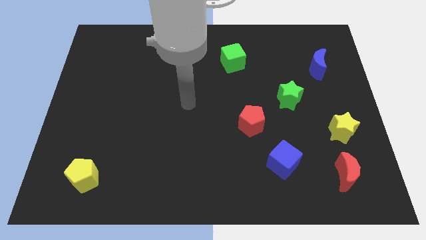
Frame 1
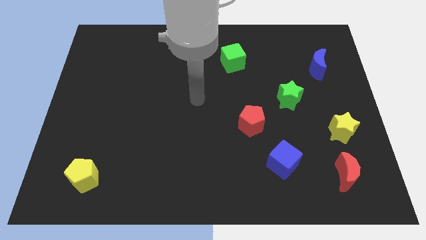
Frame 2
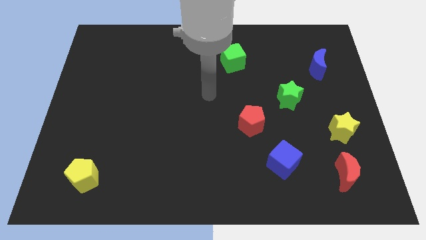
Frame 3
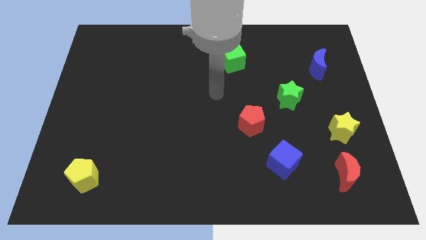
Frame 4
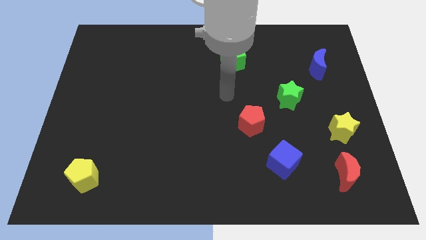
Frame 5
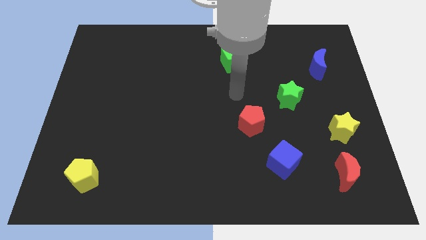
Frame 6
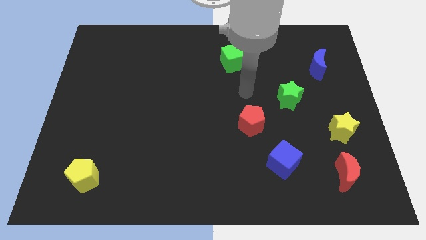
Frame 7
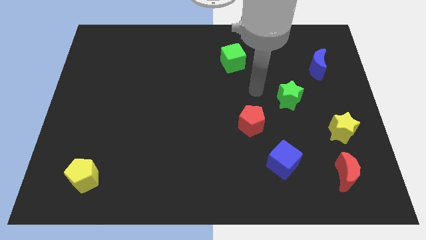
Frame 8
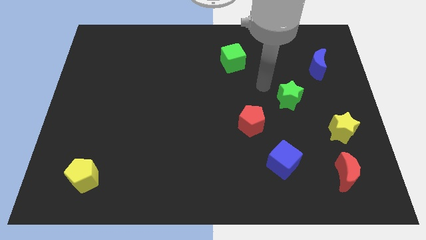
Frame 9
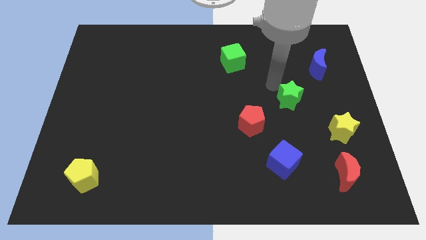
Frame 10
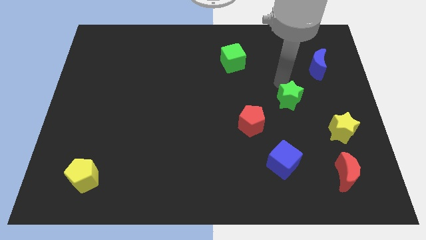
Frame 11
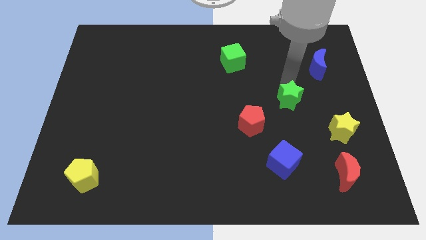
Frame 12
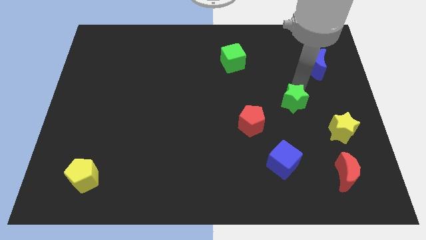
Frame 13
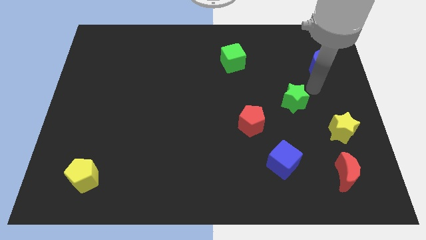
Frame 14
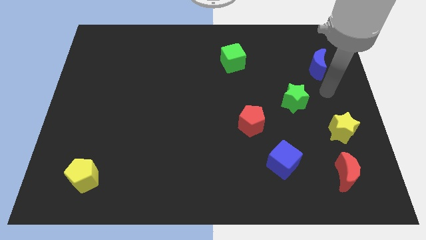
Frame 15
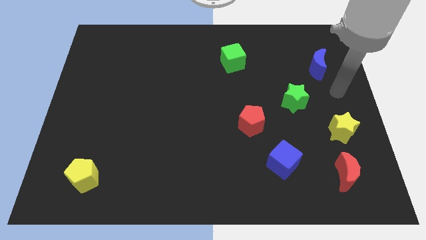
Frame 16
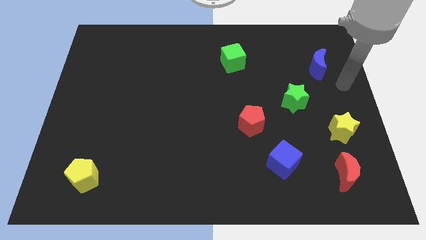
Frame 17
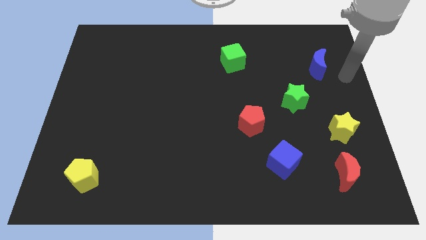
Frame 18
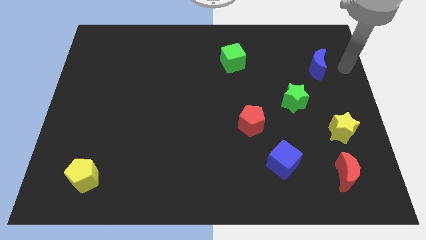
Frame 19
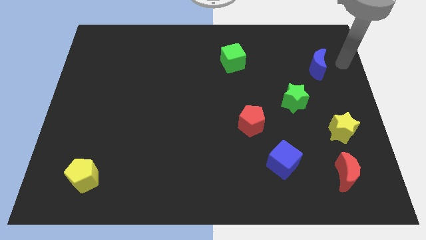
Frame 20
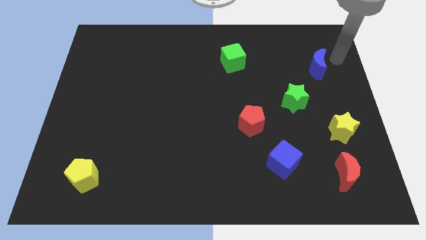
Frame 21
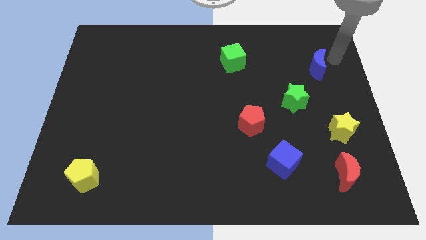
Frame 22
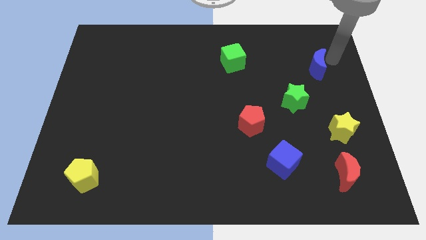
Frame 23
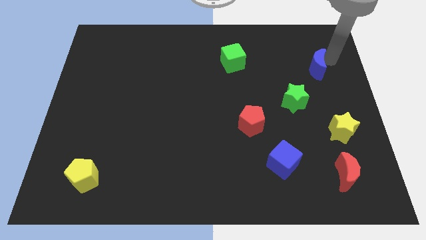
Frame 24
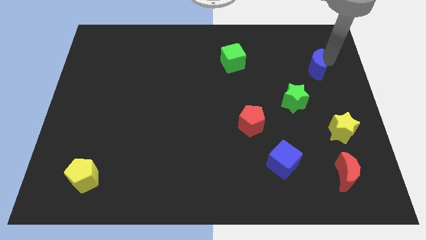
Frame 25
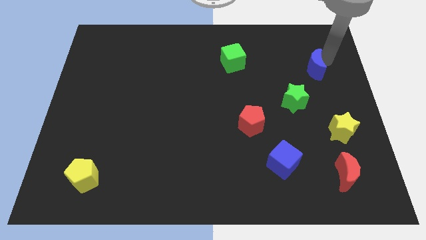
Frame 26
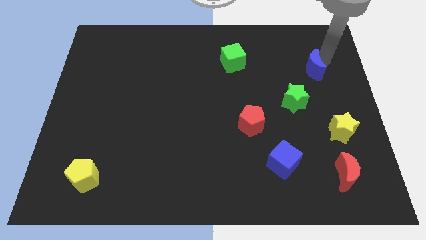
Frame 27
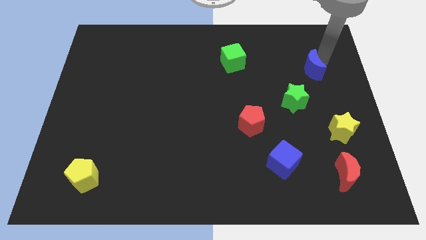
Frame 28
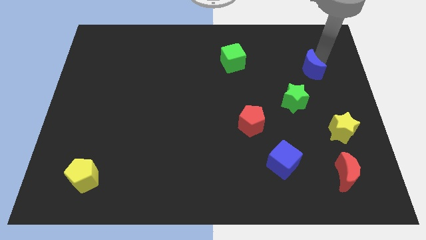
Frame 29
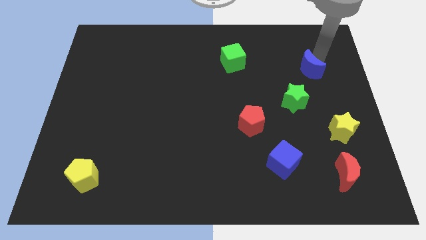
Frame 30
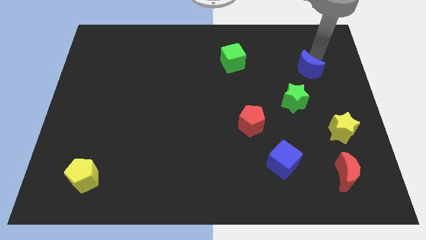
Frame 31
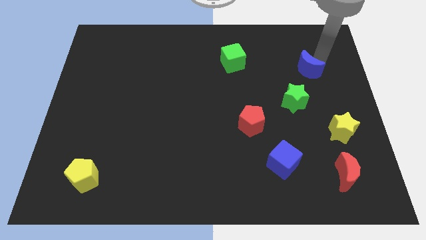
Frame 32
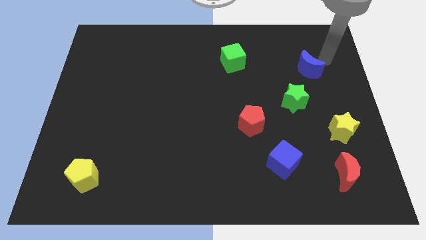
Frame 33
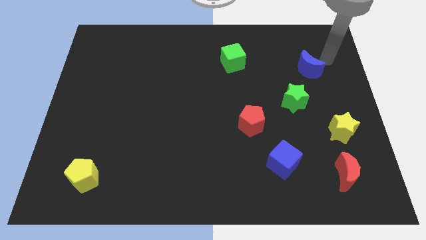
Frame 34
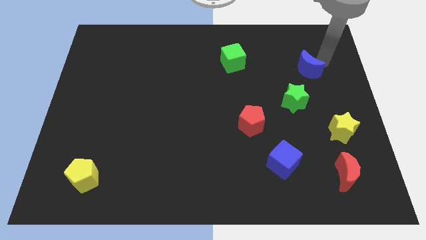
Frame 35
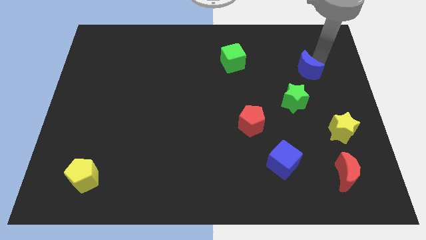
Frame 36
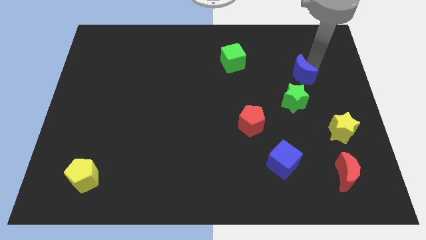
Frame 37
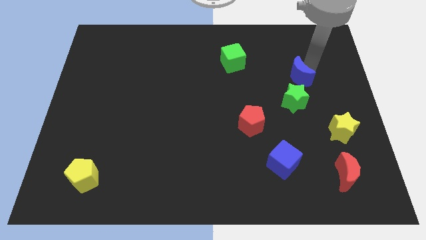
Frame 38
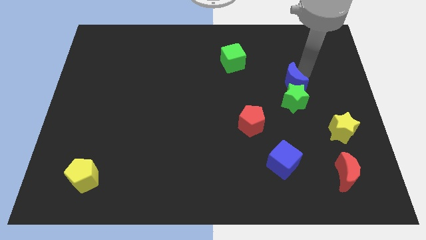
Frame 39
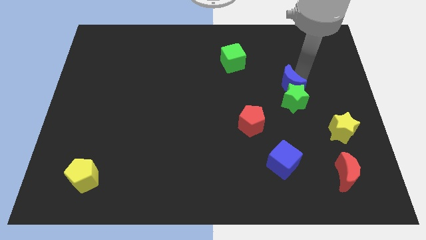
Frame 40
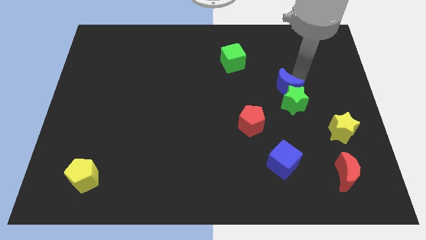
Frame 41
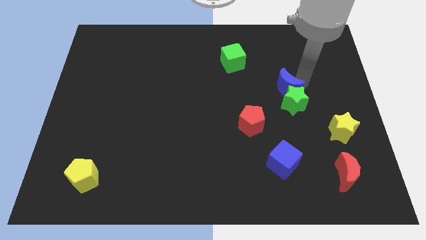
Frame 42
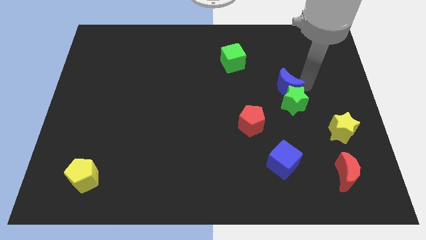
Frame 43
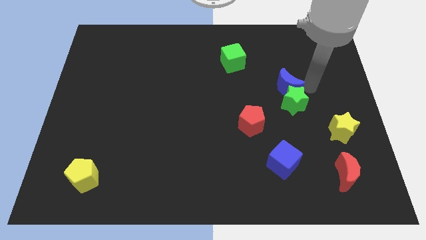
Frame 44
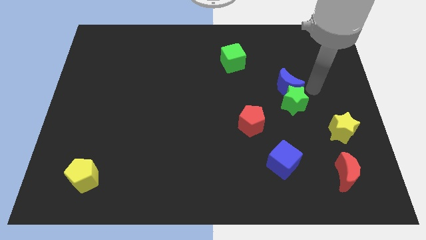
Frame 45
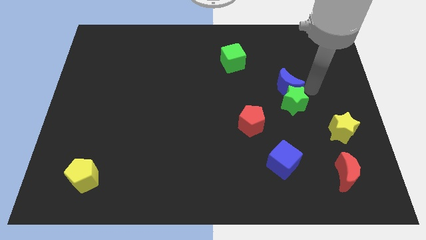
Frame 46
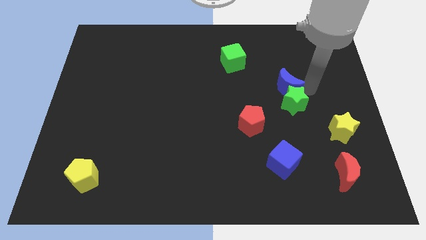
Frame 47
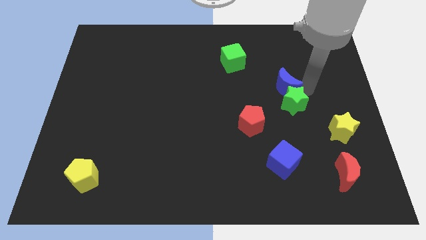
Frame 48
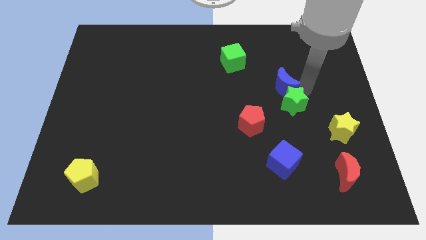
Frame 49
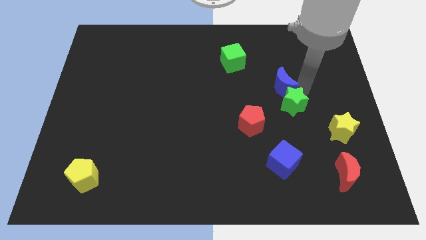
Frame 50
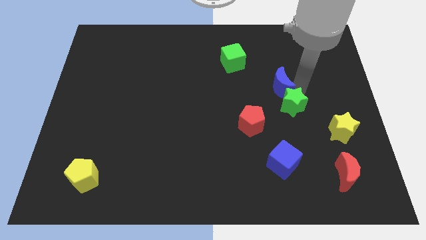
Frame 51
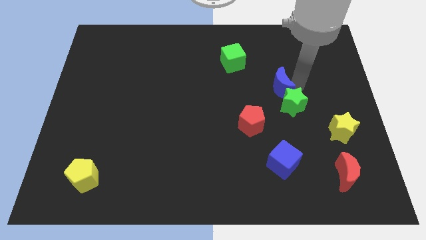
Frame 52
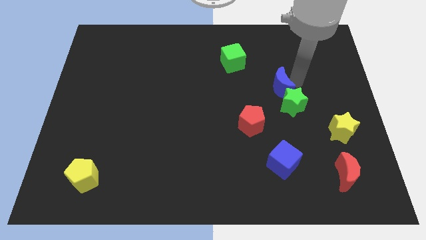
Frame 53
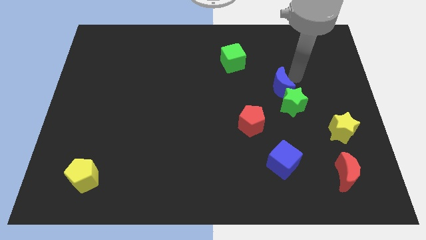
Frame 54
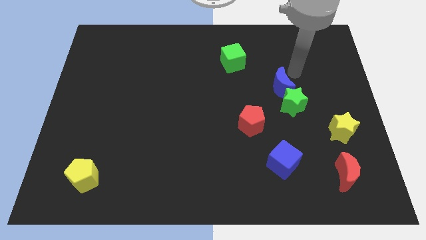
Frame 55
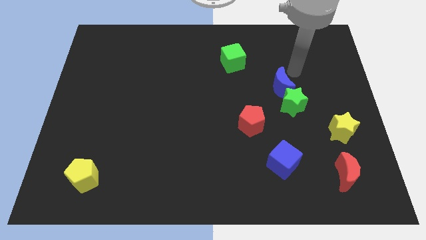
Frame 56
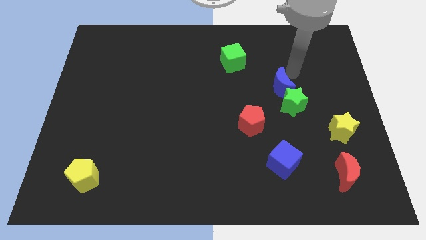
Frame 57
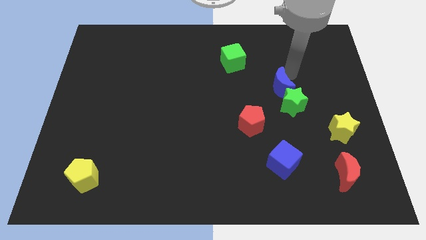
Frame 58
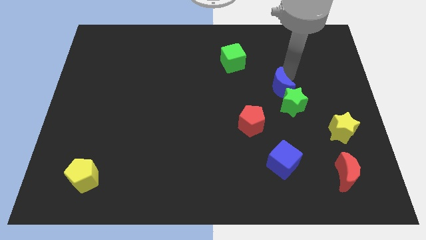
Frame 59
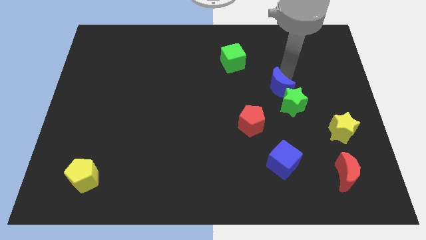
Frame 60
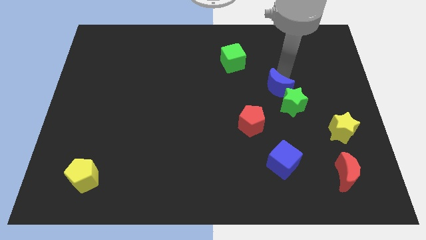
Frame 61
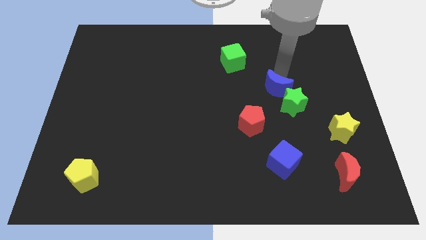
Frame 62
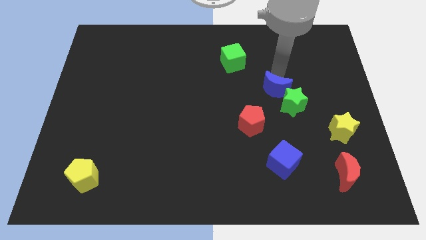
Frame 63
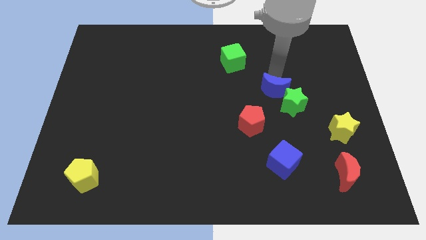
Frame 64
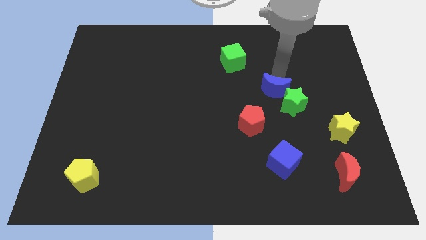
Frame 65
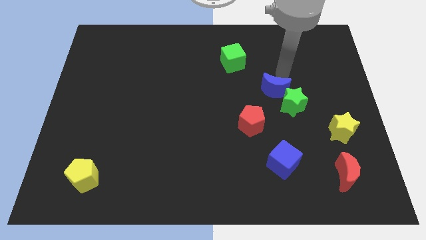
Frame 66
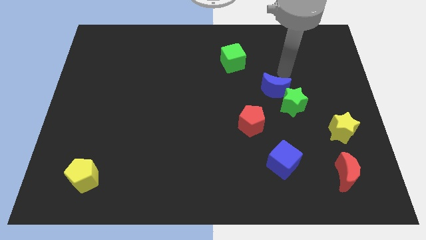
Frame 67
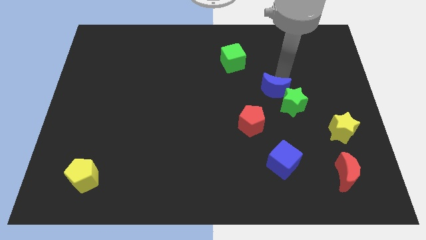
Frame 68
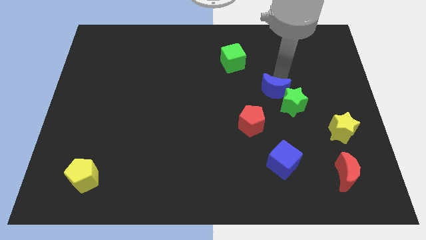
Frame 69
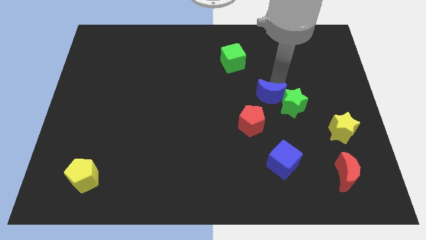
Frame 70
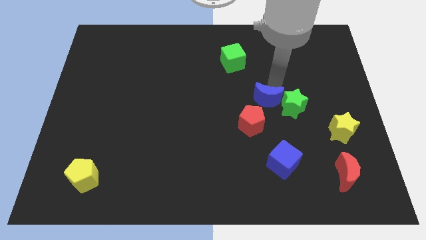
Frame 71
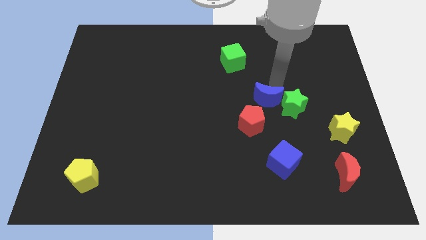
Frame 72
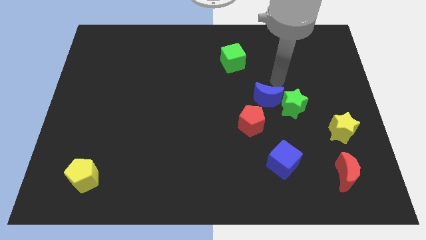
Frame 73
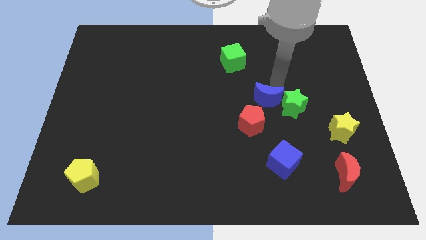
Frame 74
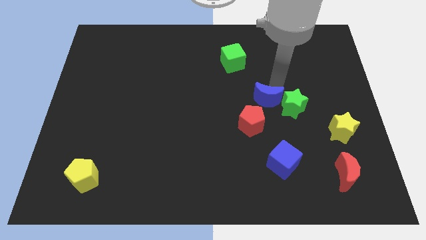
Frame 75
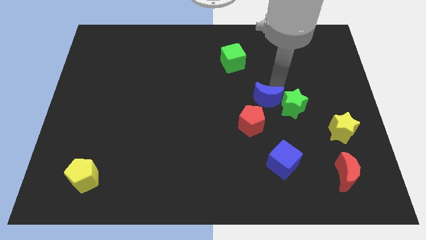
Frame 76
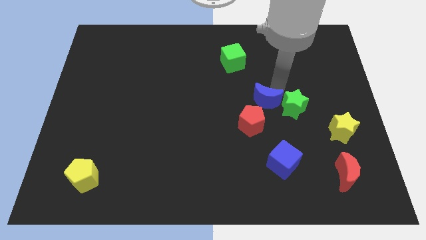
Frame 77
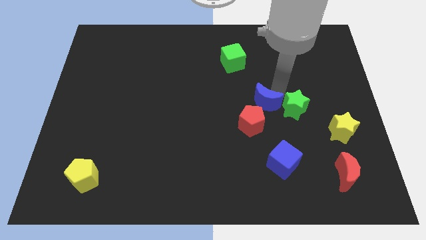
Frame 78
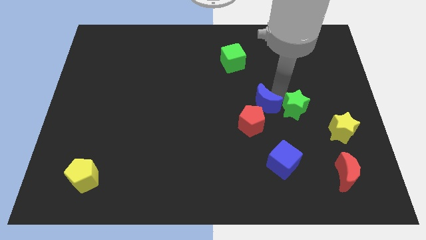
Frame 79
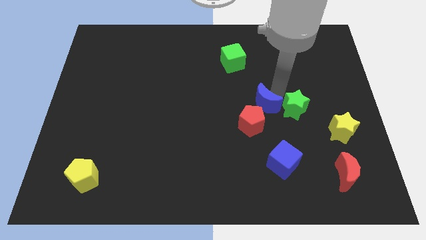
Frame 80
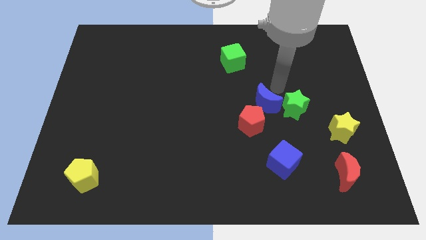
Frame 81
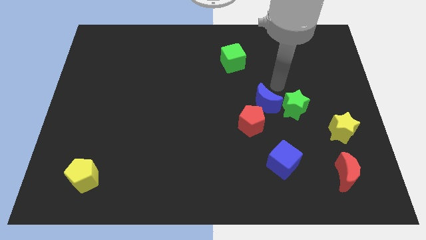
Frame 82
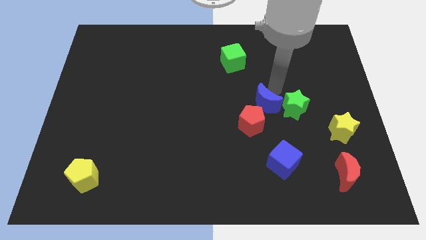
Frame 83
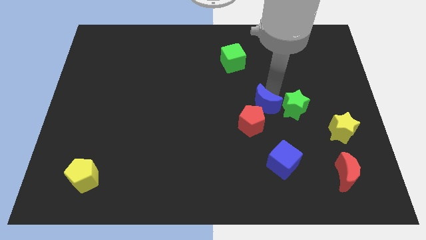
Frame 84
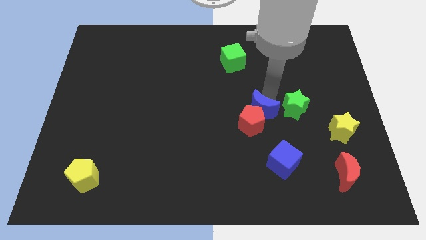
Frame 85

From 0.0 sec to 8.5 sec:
push the blue moon towards the red pentagon
